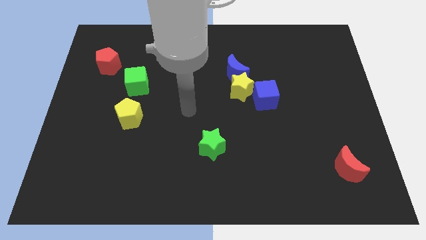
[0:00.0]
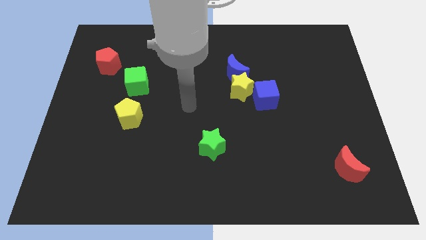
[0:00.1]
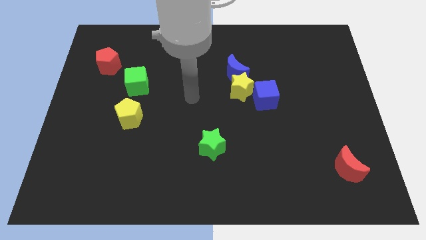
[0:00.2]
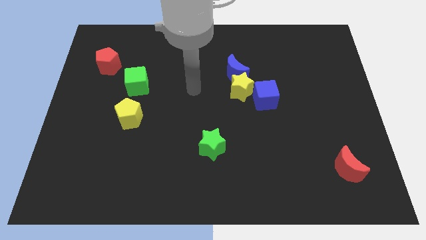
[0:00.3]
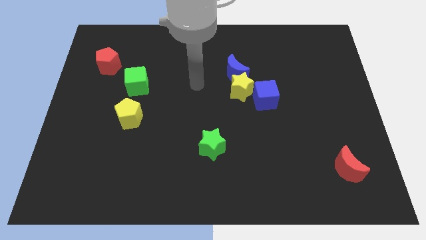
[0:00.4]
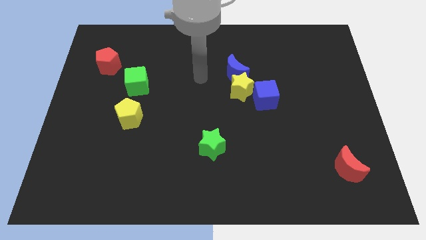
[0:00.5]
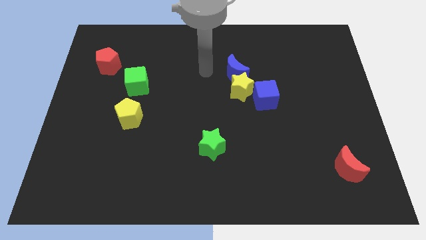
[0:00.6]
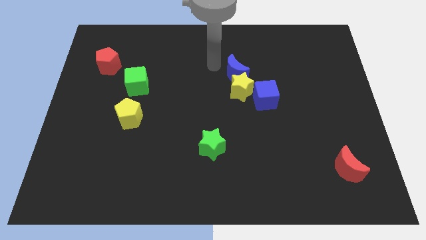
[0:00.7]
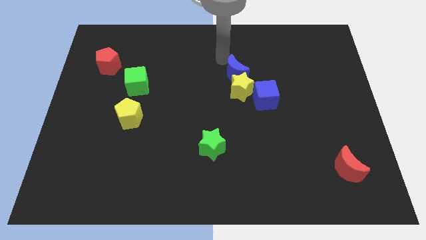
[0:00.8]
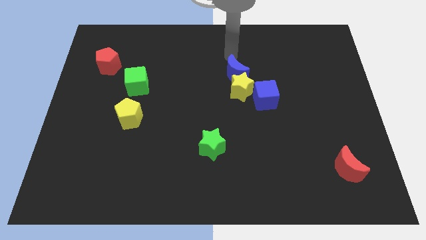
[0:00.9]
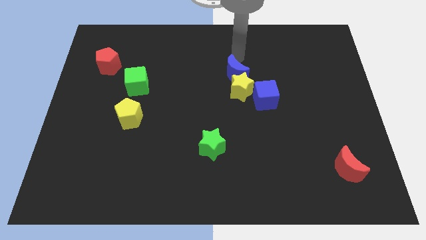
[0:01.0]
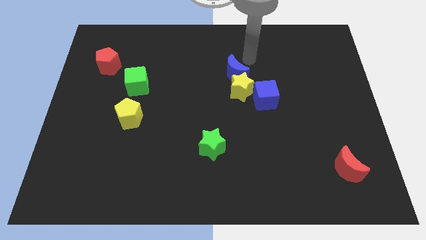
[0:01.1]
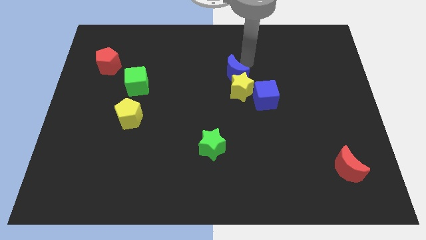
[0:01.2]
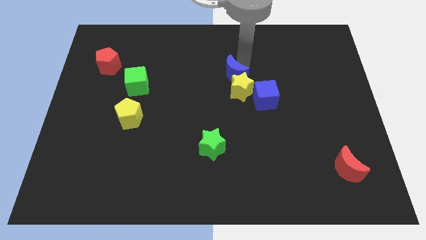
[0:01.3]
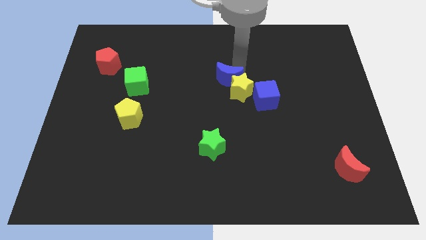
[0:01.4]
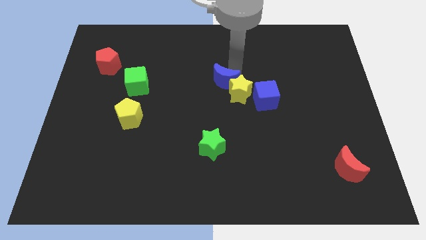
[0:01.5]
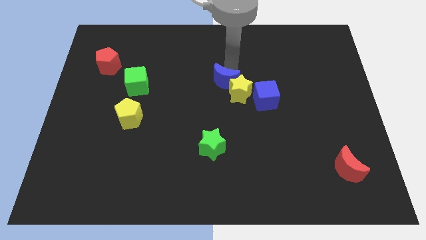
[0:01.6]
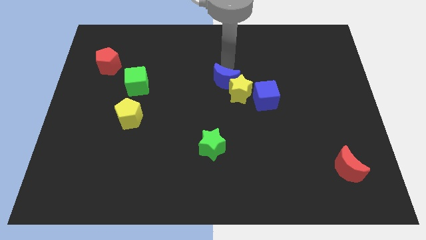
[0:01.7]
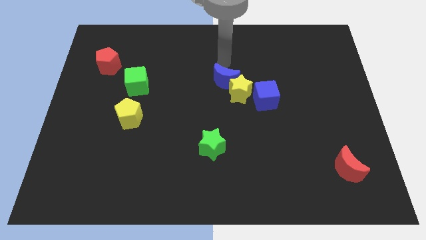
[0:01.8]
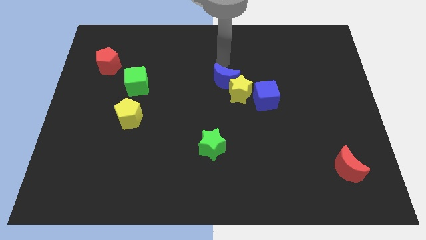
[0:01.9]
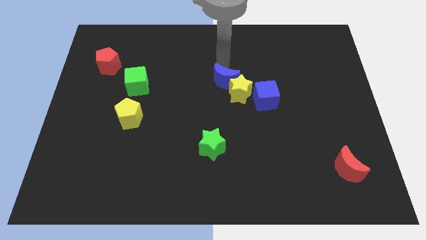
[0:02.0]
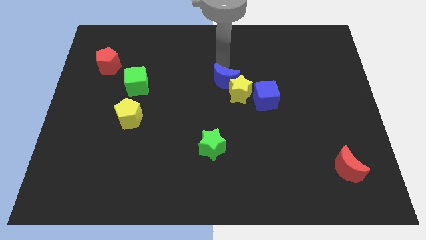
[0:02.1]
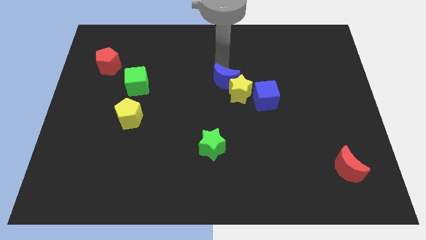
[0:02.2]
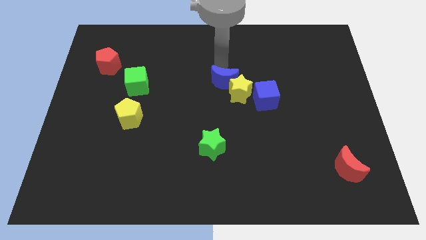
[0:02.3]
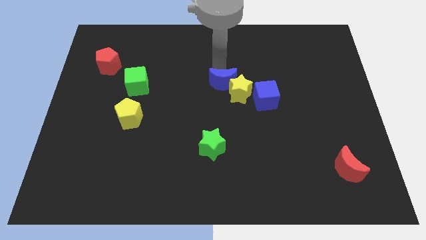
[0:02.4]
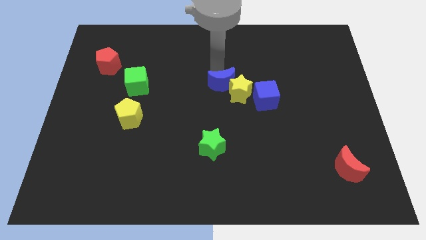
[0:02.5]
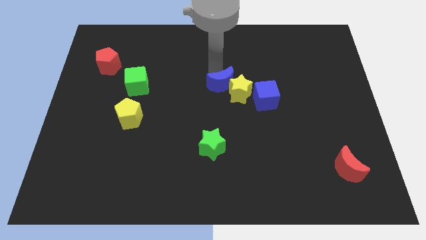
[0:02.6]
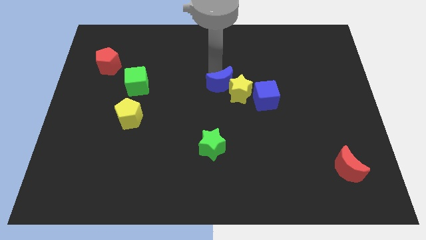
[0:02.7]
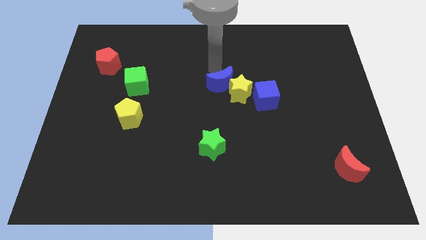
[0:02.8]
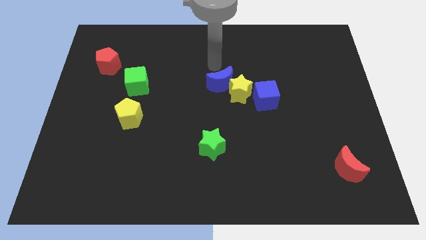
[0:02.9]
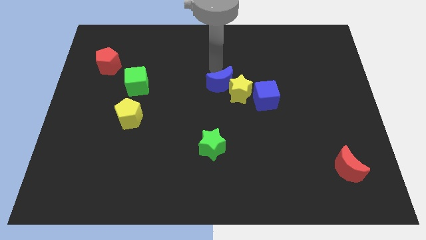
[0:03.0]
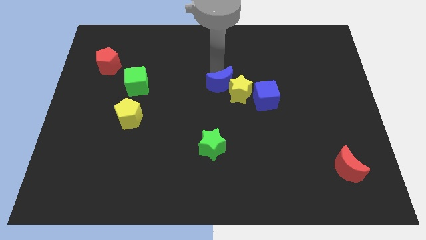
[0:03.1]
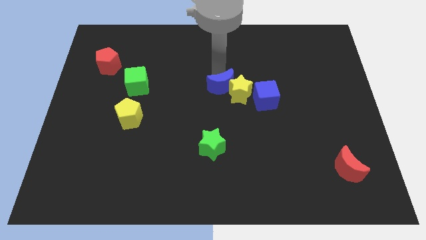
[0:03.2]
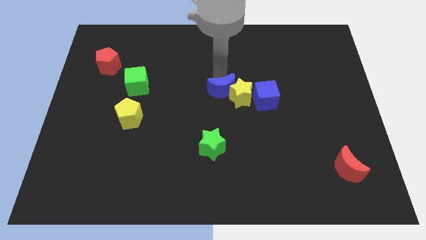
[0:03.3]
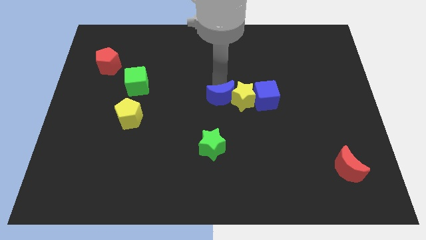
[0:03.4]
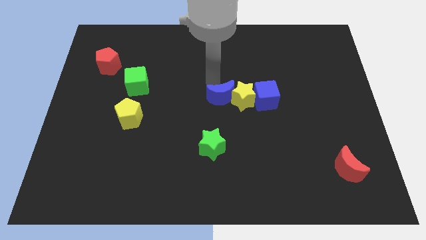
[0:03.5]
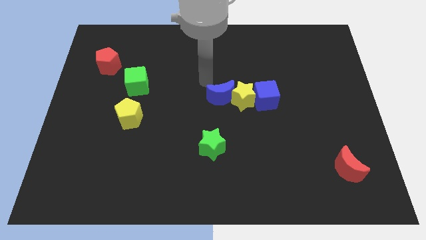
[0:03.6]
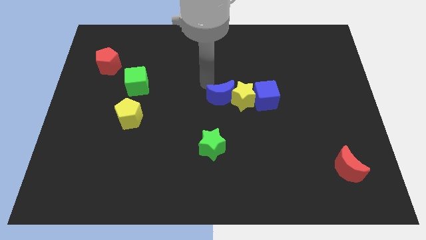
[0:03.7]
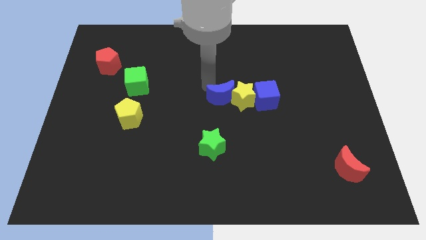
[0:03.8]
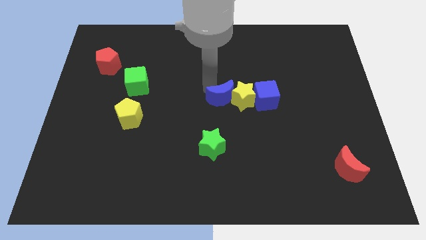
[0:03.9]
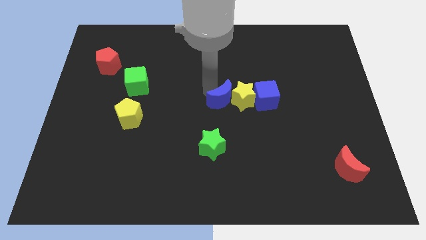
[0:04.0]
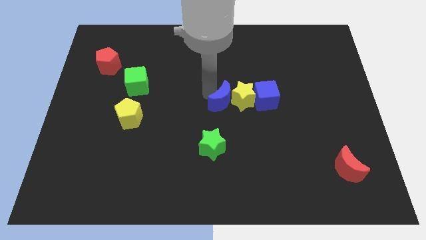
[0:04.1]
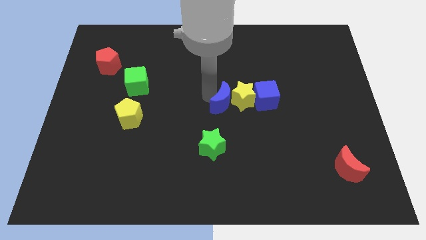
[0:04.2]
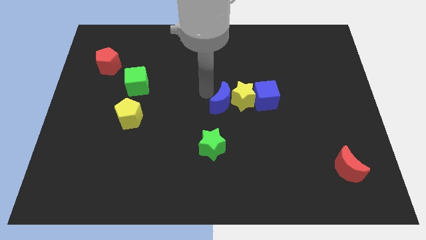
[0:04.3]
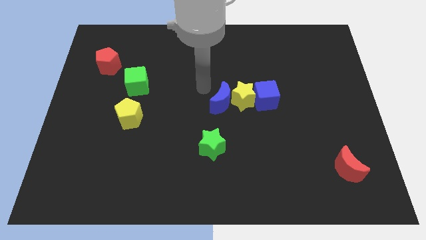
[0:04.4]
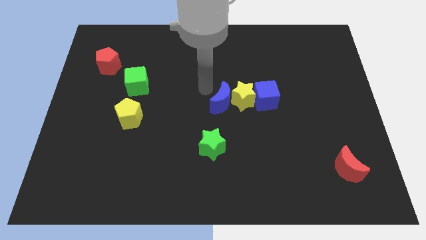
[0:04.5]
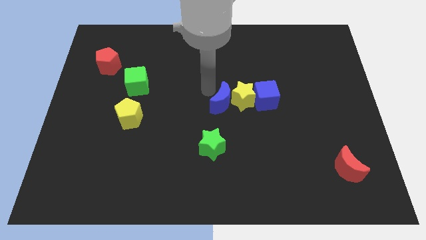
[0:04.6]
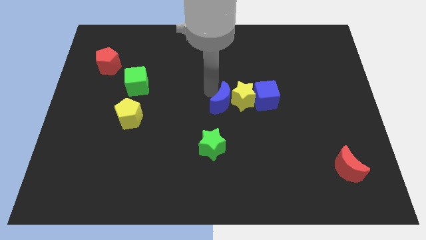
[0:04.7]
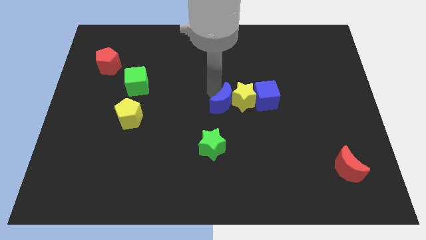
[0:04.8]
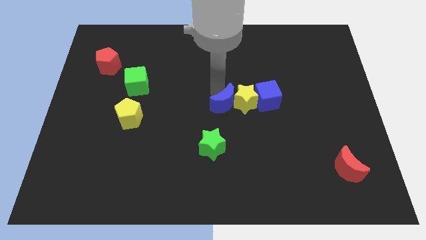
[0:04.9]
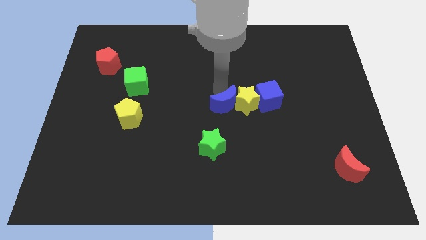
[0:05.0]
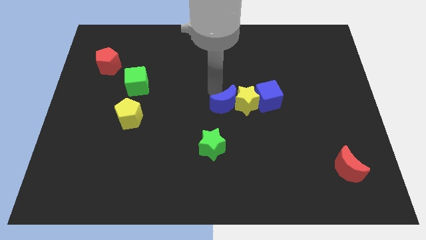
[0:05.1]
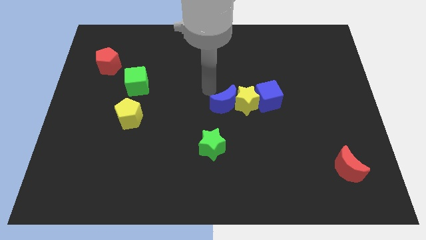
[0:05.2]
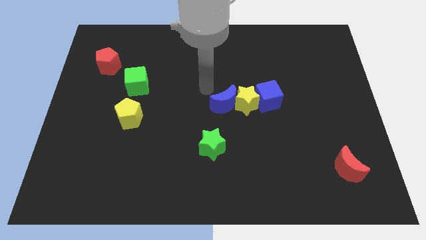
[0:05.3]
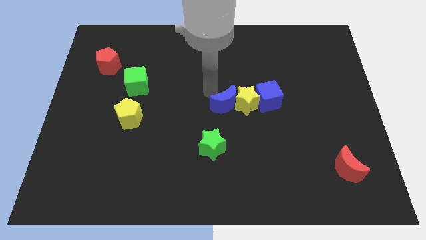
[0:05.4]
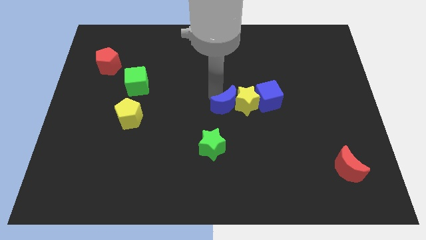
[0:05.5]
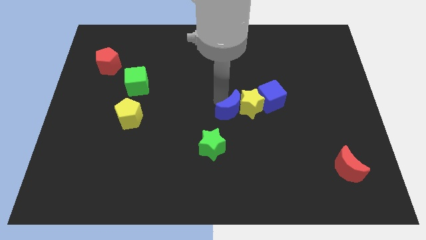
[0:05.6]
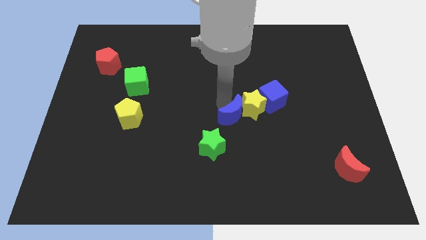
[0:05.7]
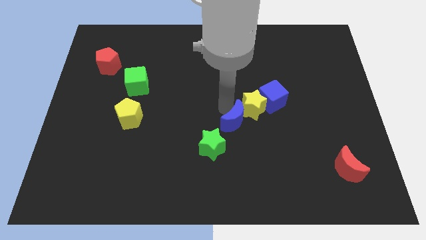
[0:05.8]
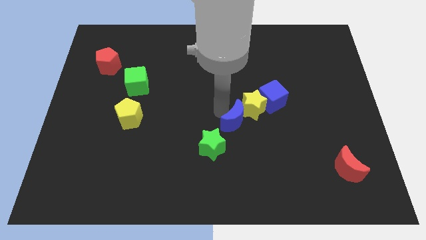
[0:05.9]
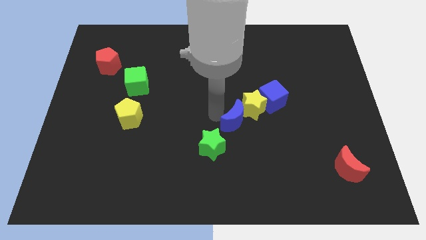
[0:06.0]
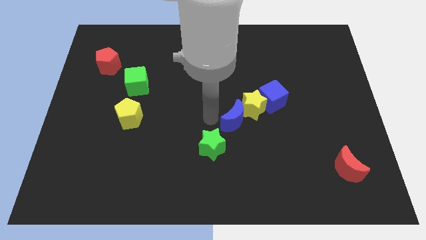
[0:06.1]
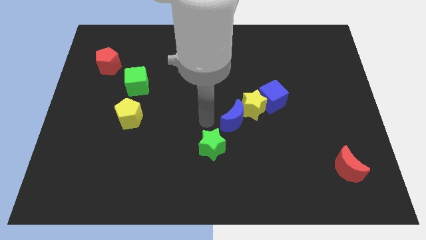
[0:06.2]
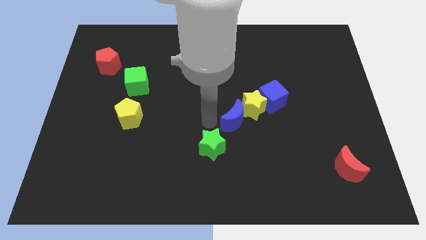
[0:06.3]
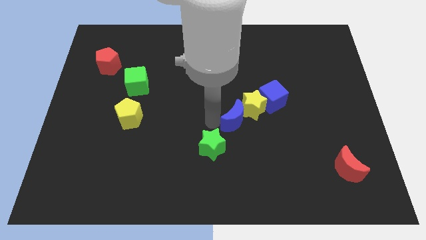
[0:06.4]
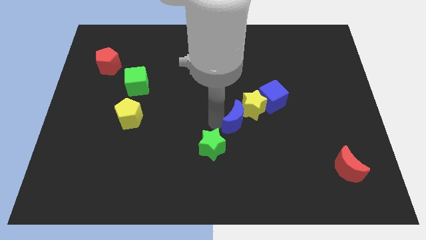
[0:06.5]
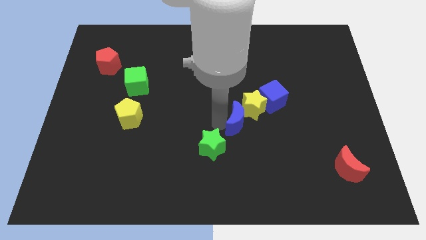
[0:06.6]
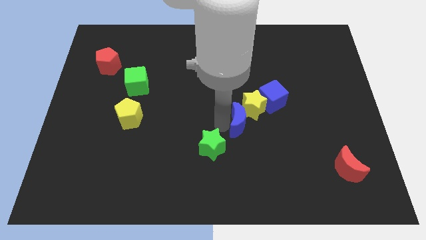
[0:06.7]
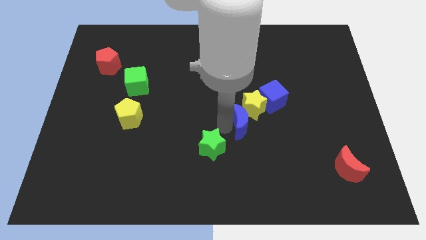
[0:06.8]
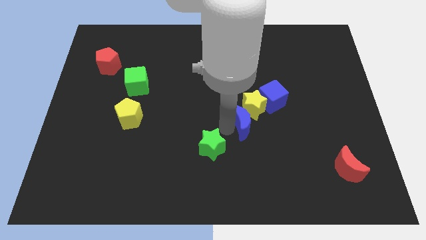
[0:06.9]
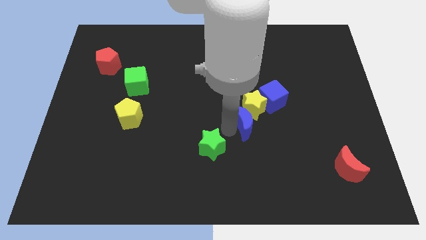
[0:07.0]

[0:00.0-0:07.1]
slightly push the blue moon diagonally downwards and to the right

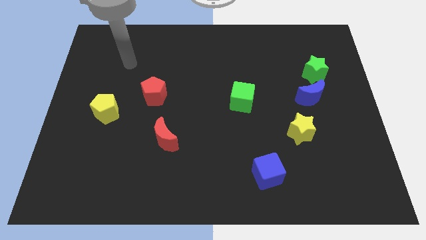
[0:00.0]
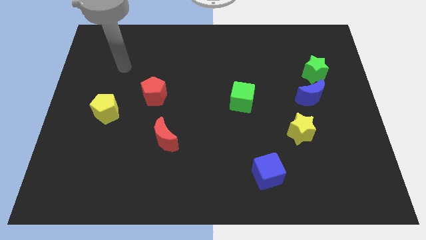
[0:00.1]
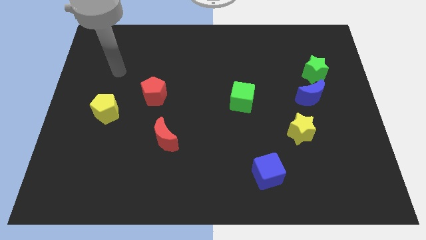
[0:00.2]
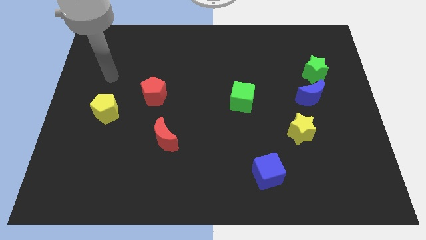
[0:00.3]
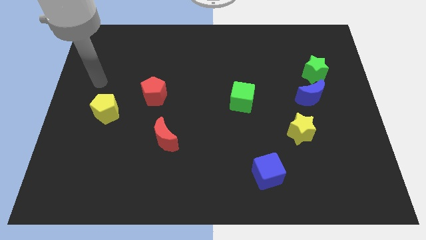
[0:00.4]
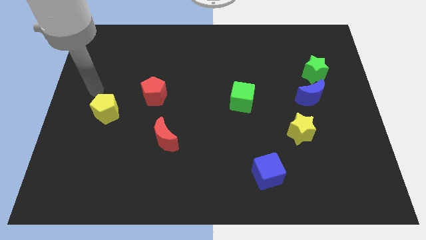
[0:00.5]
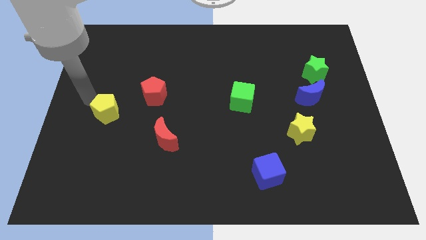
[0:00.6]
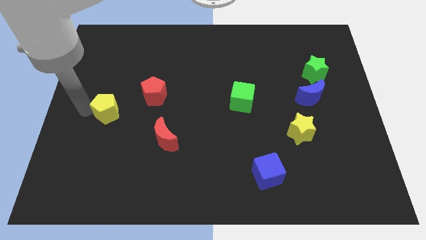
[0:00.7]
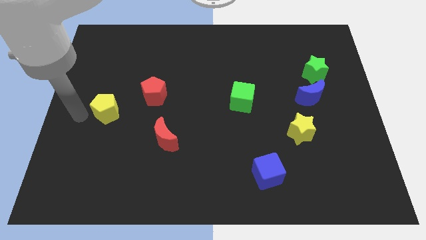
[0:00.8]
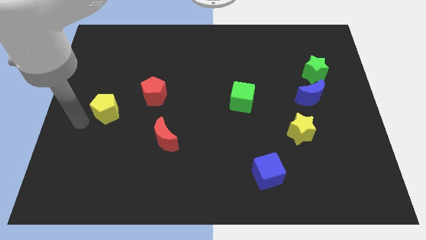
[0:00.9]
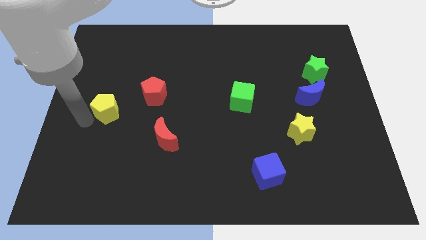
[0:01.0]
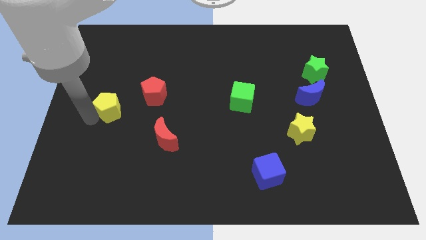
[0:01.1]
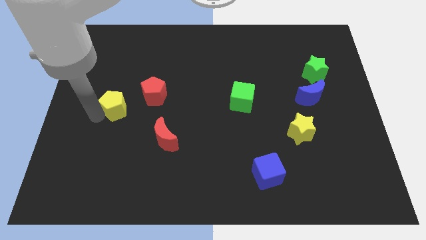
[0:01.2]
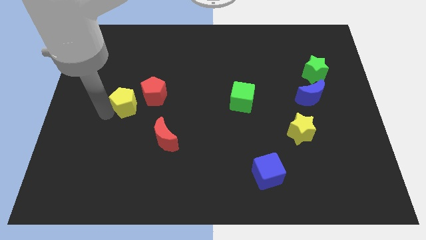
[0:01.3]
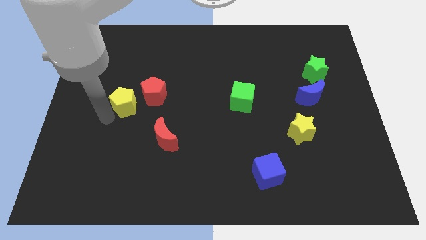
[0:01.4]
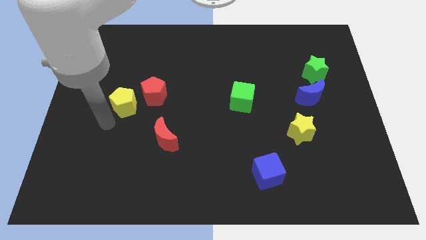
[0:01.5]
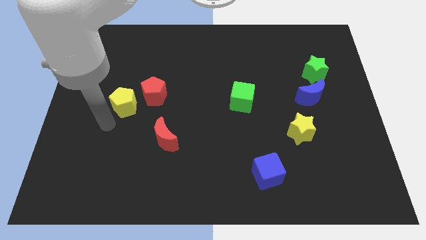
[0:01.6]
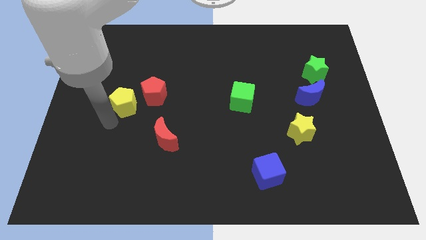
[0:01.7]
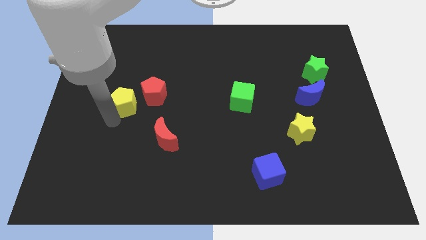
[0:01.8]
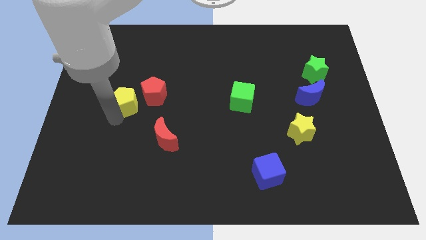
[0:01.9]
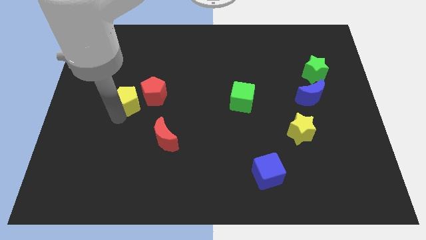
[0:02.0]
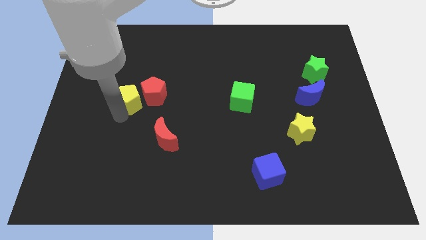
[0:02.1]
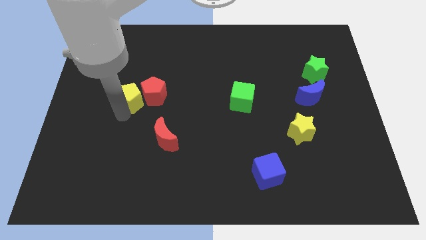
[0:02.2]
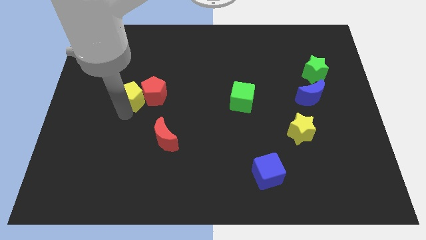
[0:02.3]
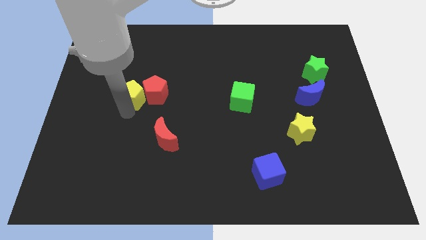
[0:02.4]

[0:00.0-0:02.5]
move the yellow pentagon a little bit upwards and then right
